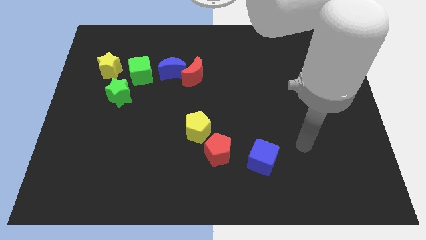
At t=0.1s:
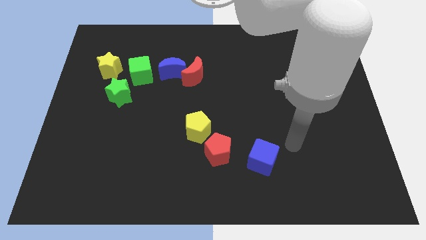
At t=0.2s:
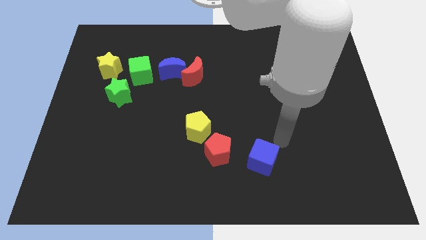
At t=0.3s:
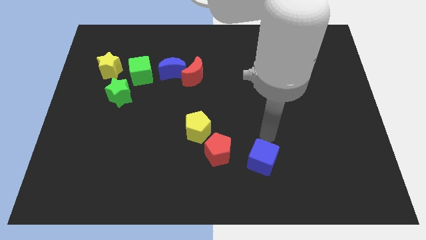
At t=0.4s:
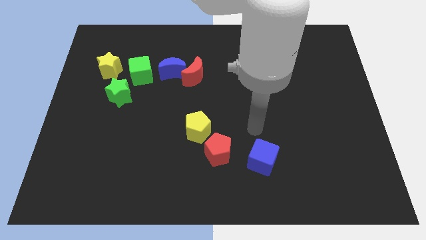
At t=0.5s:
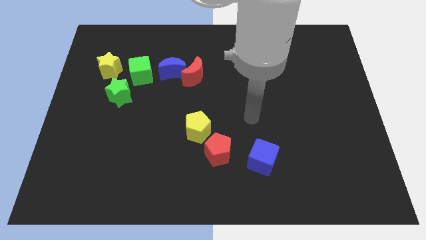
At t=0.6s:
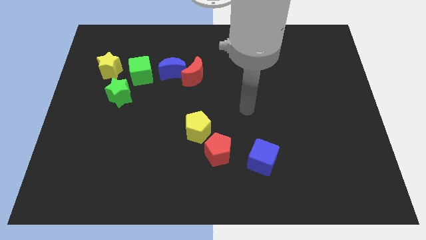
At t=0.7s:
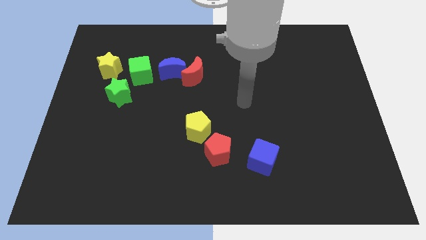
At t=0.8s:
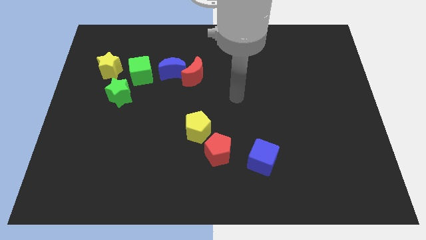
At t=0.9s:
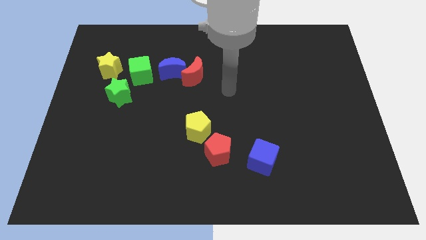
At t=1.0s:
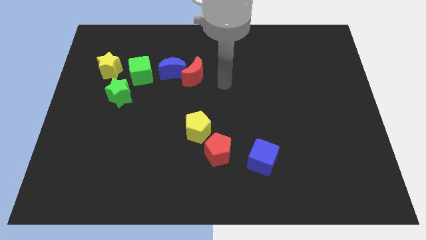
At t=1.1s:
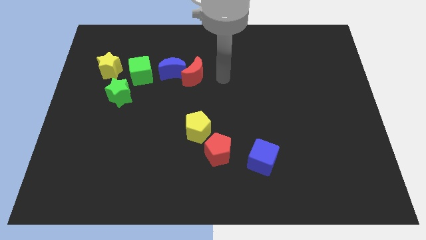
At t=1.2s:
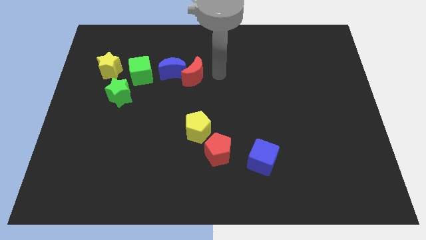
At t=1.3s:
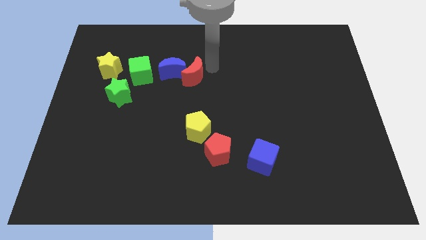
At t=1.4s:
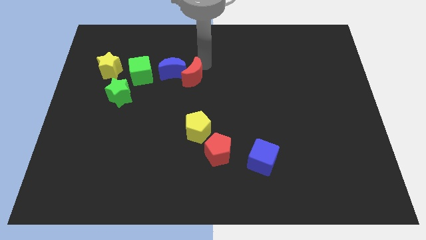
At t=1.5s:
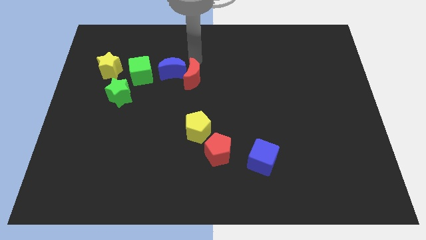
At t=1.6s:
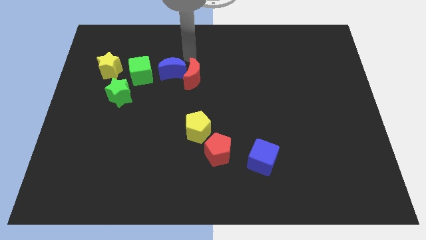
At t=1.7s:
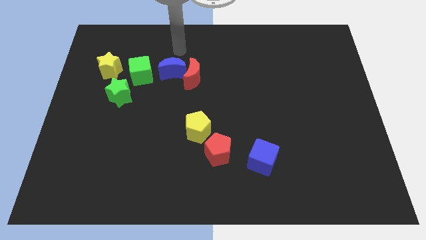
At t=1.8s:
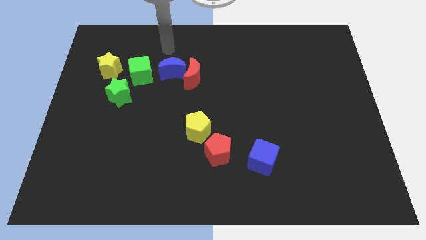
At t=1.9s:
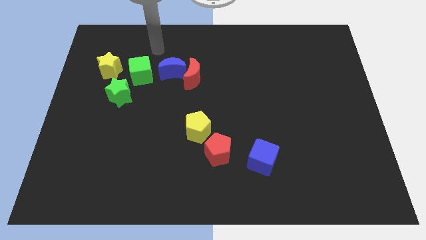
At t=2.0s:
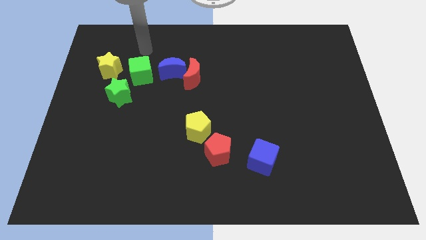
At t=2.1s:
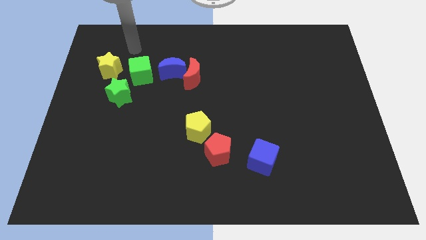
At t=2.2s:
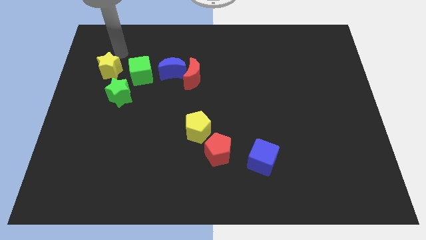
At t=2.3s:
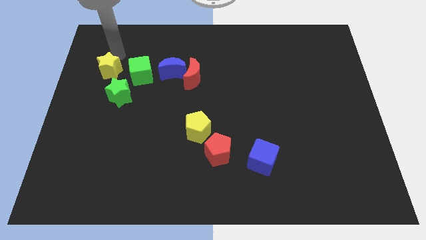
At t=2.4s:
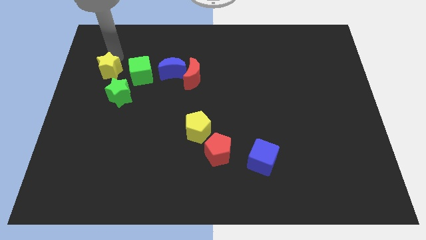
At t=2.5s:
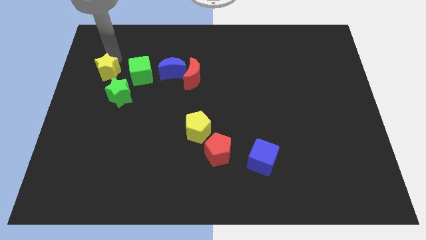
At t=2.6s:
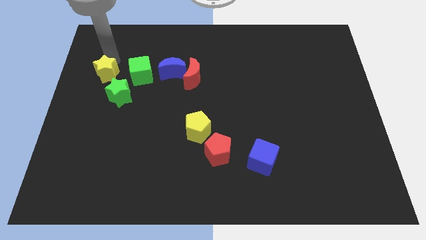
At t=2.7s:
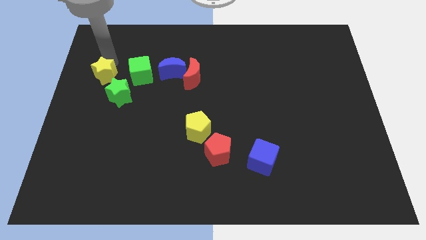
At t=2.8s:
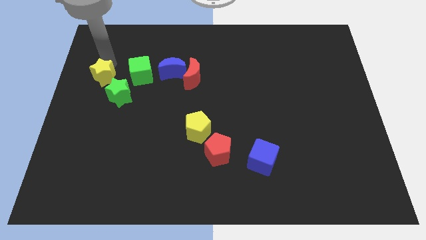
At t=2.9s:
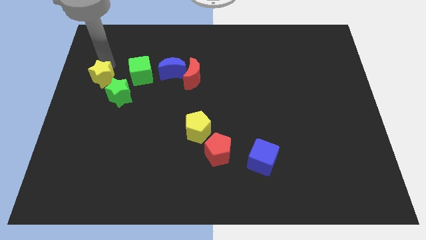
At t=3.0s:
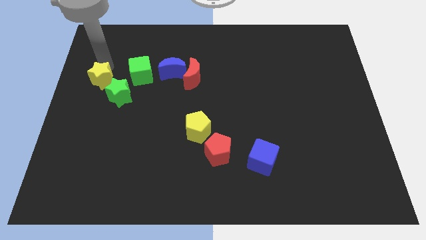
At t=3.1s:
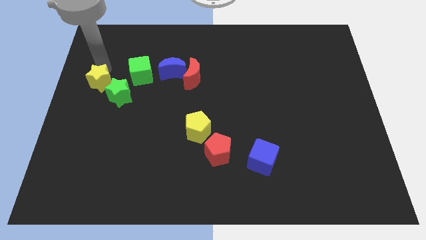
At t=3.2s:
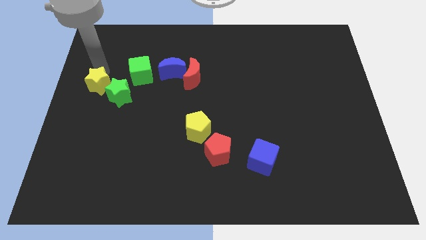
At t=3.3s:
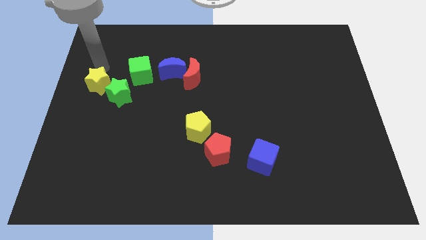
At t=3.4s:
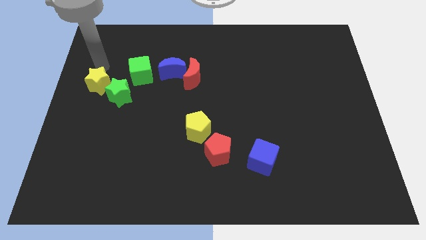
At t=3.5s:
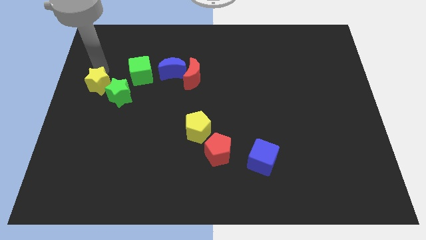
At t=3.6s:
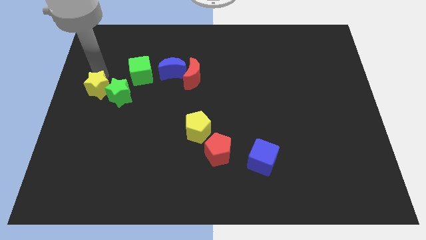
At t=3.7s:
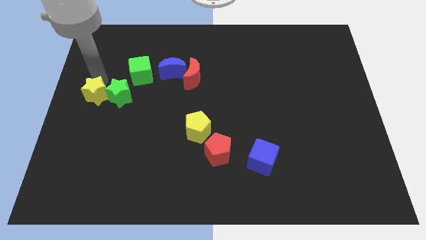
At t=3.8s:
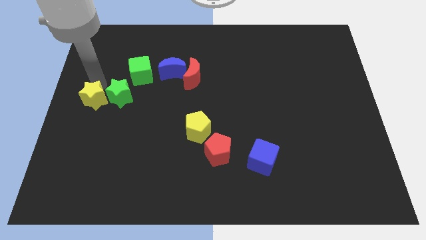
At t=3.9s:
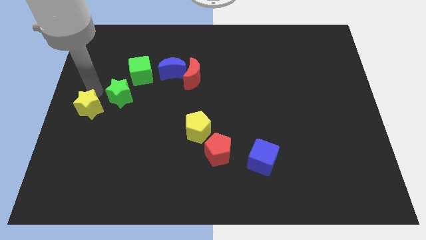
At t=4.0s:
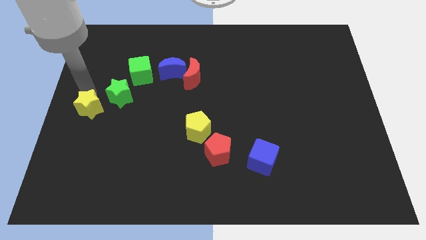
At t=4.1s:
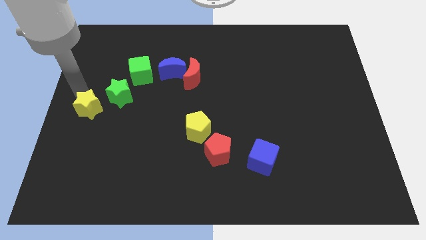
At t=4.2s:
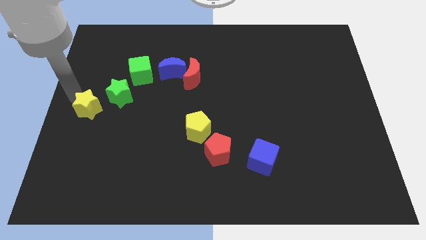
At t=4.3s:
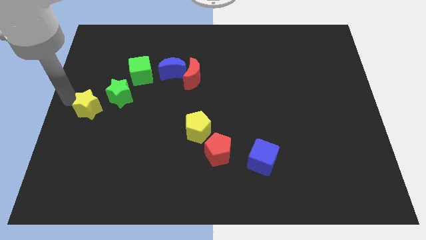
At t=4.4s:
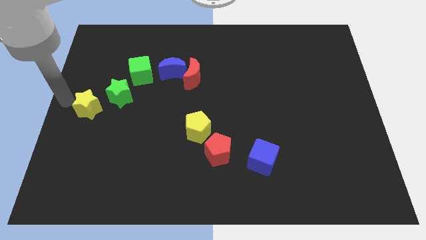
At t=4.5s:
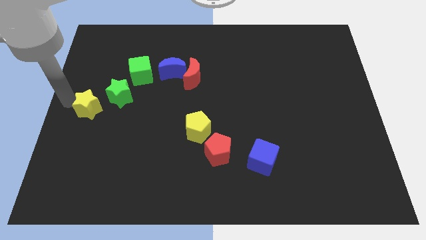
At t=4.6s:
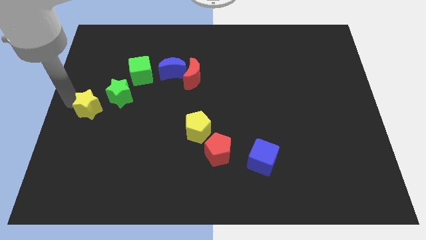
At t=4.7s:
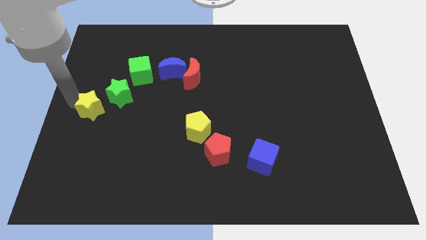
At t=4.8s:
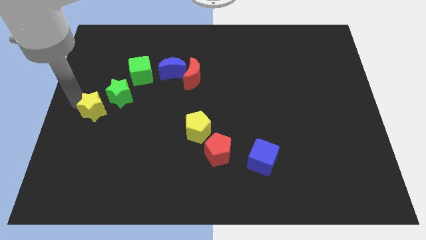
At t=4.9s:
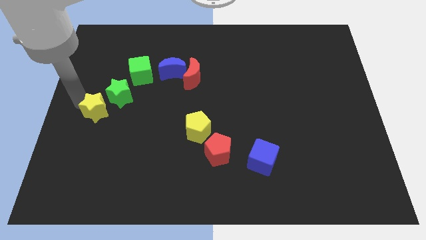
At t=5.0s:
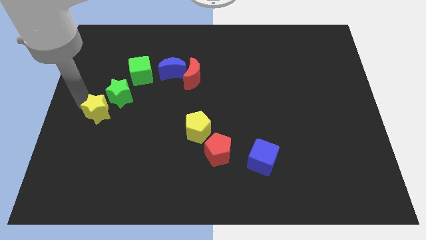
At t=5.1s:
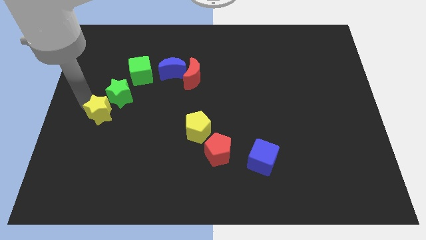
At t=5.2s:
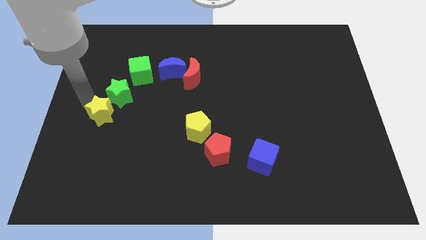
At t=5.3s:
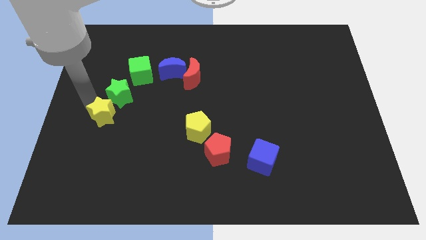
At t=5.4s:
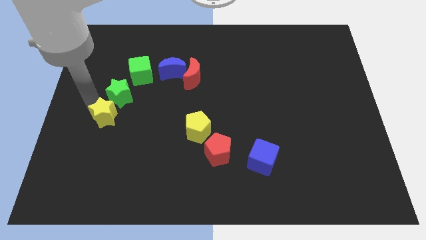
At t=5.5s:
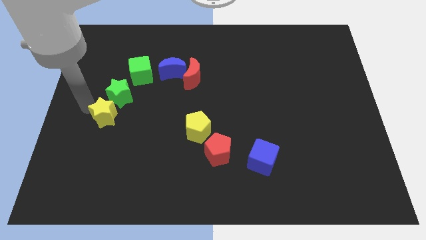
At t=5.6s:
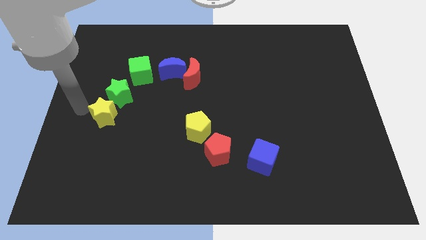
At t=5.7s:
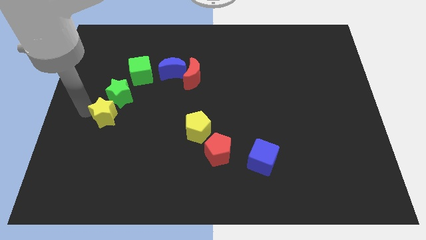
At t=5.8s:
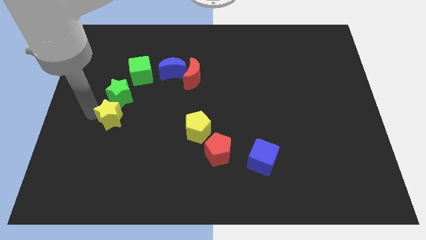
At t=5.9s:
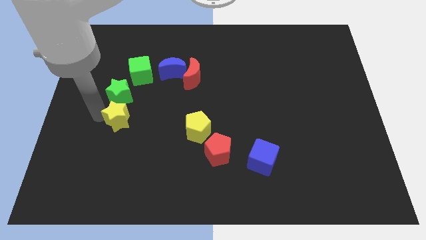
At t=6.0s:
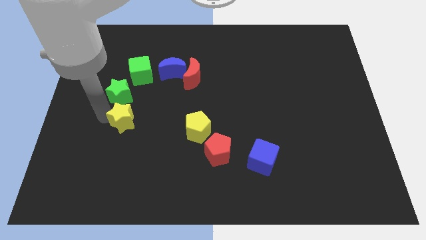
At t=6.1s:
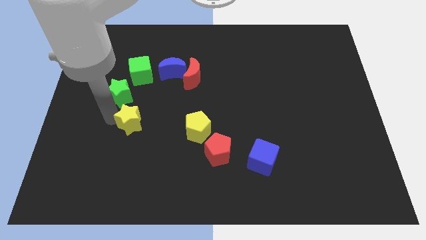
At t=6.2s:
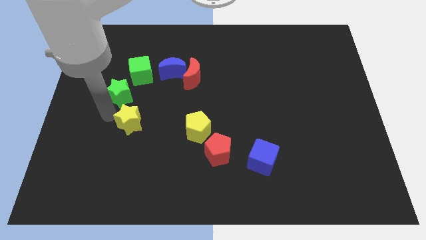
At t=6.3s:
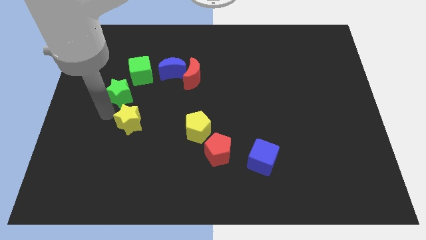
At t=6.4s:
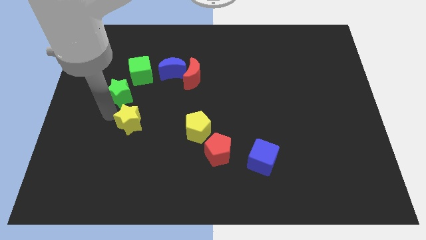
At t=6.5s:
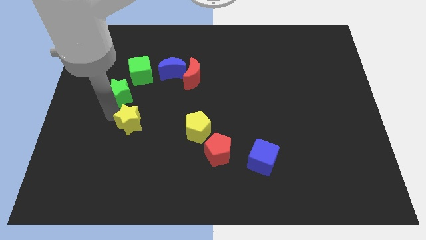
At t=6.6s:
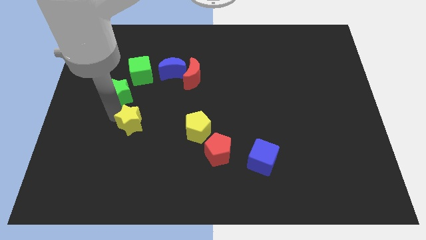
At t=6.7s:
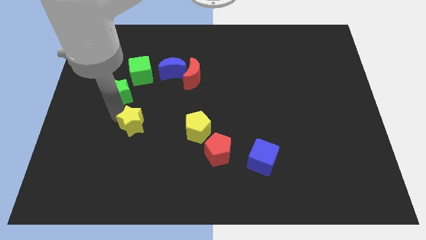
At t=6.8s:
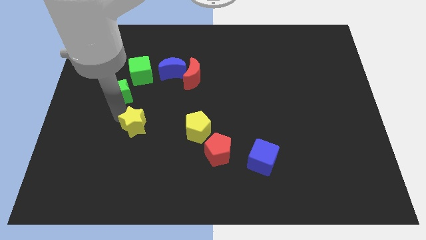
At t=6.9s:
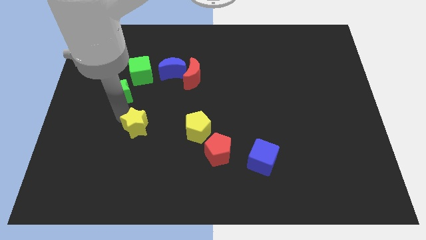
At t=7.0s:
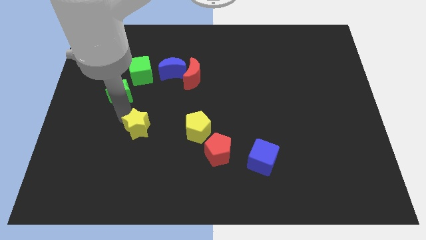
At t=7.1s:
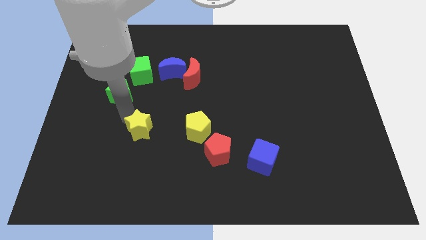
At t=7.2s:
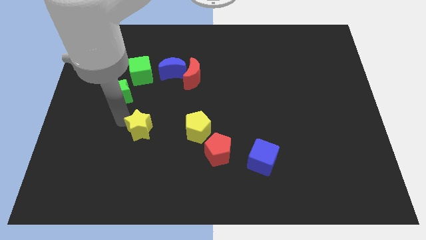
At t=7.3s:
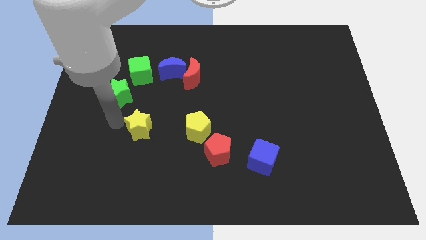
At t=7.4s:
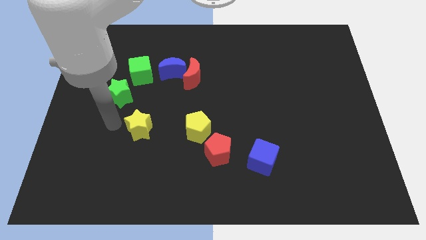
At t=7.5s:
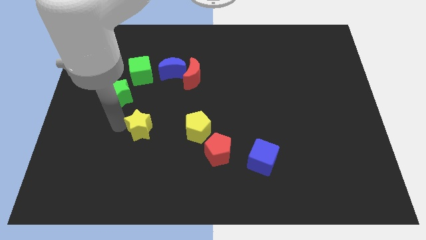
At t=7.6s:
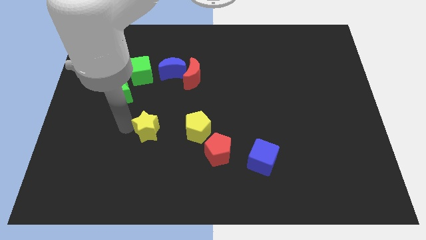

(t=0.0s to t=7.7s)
push the yellow star downwards and then right

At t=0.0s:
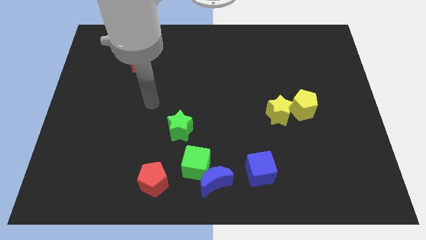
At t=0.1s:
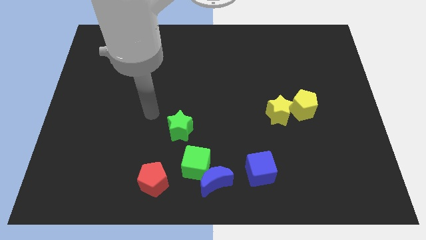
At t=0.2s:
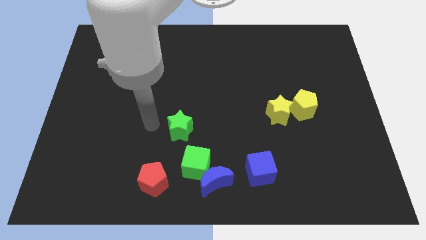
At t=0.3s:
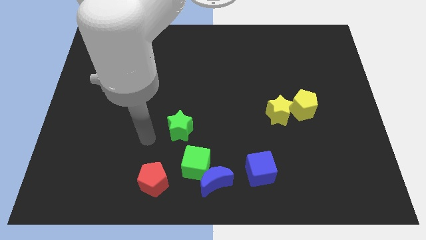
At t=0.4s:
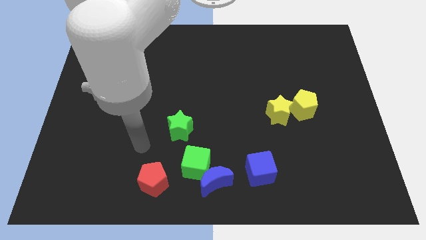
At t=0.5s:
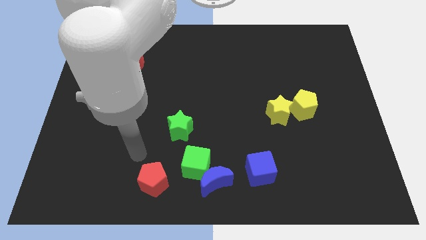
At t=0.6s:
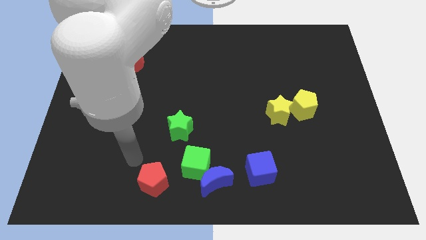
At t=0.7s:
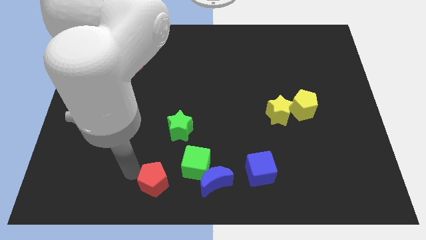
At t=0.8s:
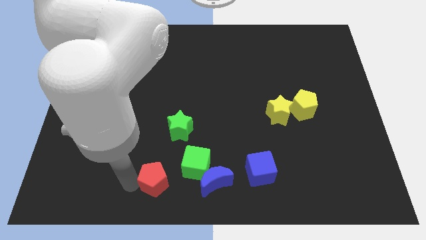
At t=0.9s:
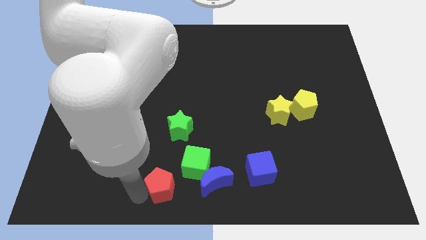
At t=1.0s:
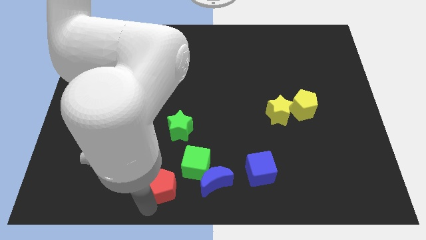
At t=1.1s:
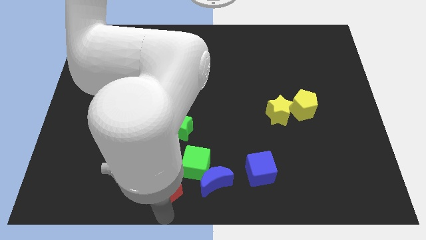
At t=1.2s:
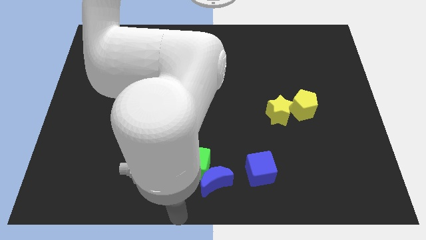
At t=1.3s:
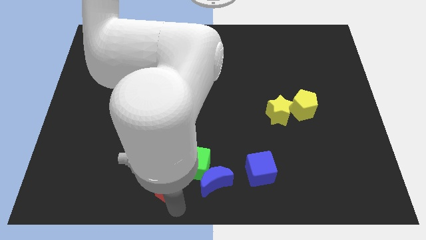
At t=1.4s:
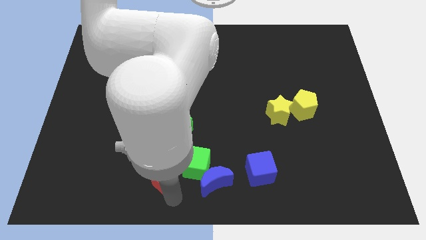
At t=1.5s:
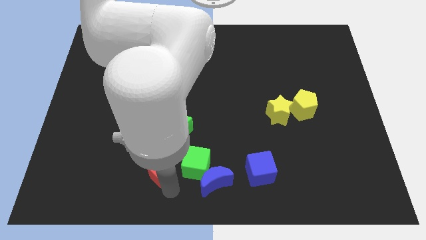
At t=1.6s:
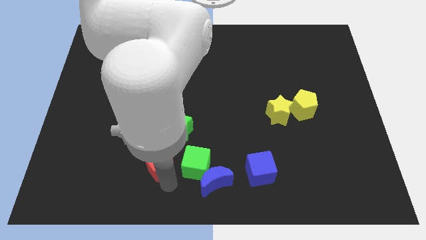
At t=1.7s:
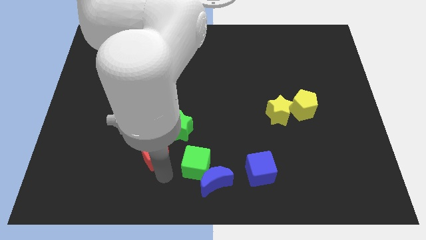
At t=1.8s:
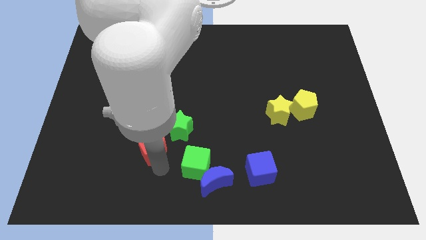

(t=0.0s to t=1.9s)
slide the red pentagon up a bit
